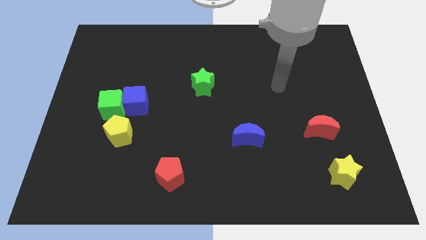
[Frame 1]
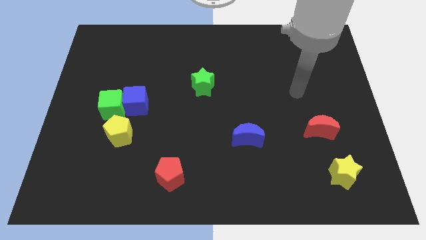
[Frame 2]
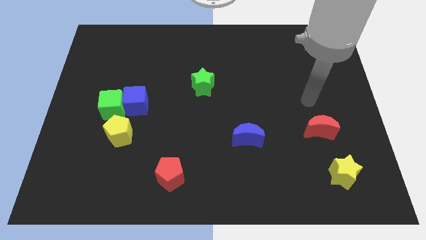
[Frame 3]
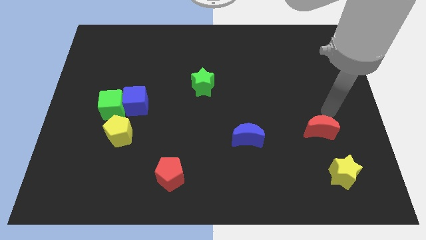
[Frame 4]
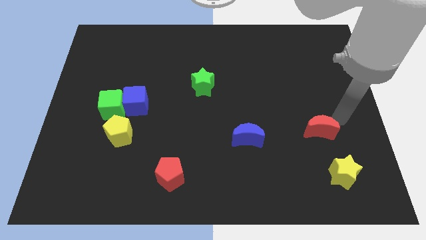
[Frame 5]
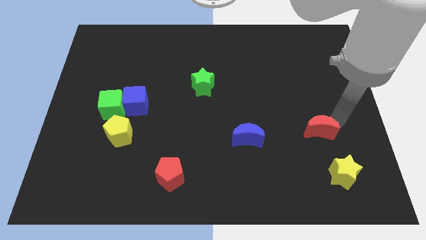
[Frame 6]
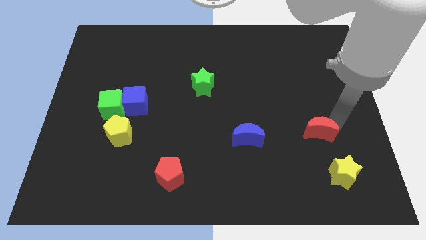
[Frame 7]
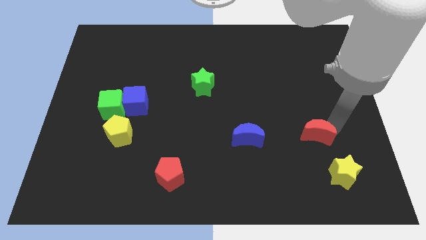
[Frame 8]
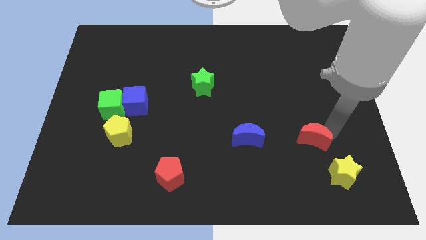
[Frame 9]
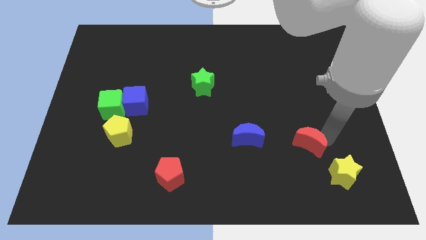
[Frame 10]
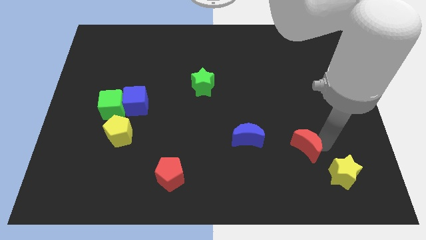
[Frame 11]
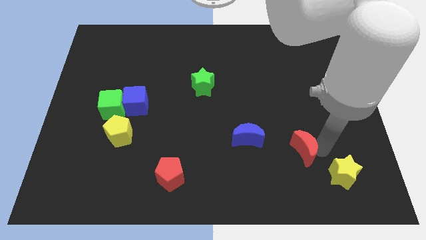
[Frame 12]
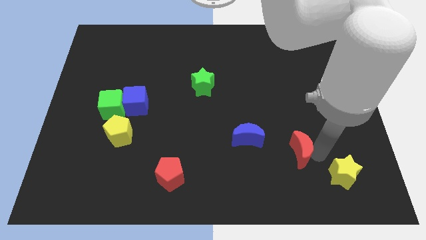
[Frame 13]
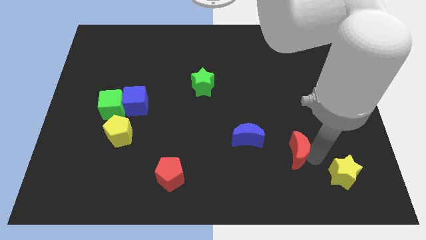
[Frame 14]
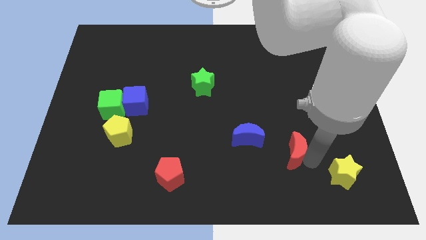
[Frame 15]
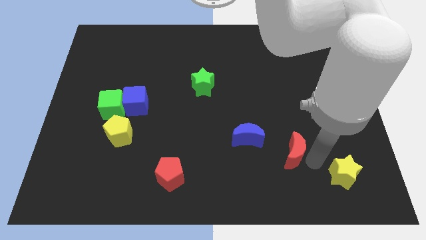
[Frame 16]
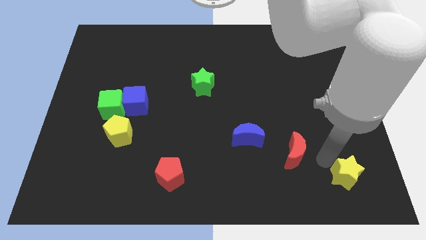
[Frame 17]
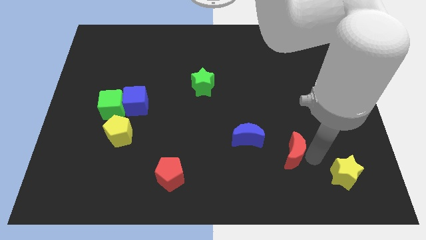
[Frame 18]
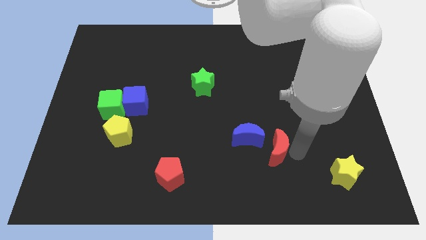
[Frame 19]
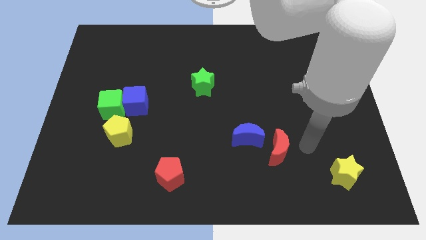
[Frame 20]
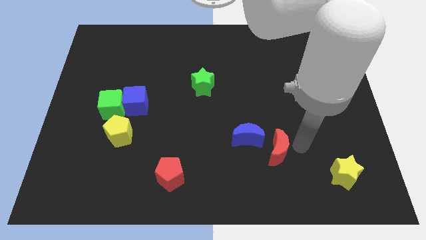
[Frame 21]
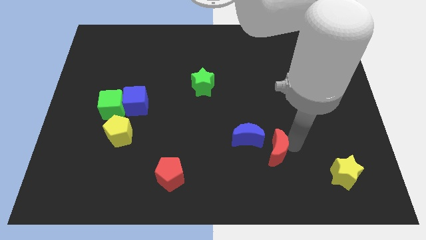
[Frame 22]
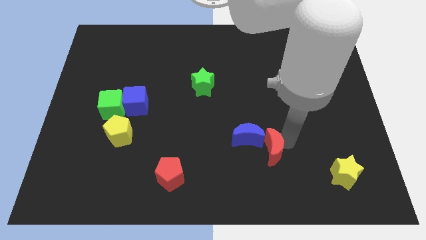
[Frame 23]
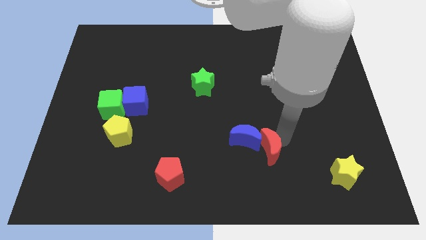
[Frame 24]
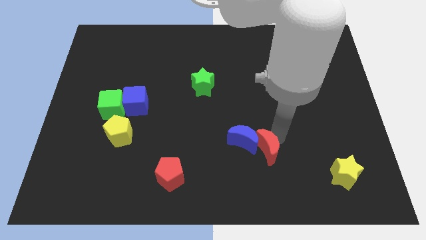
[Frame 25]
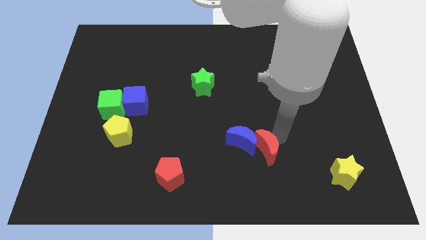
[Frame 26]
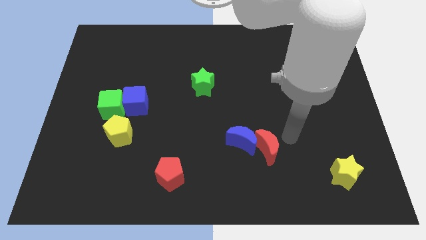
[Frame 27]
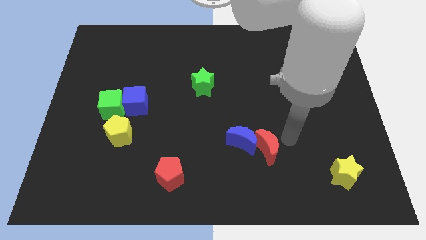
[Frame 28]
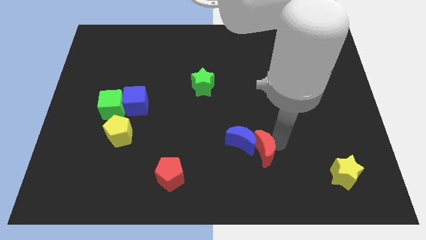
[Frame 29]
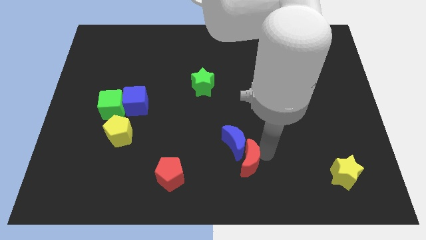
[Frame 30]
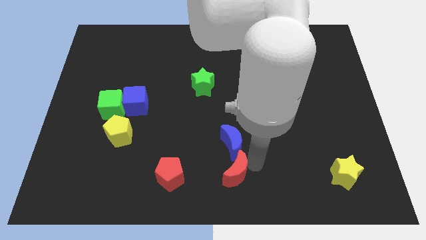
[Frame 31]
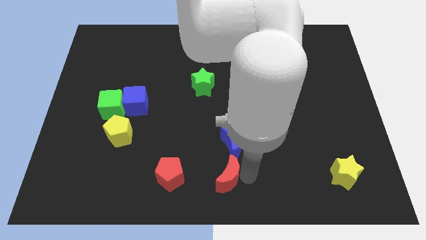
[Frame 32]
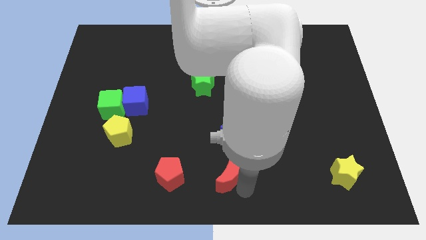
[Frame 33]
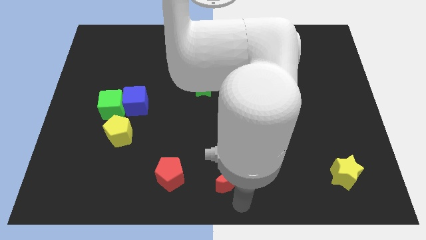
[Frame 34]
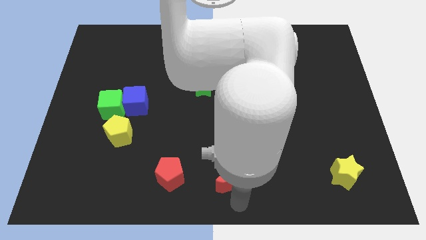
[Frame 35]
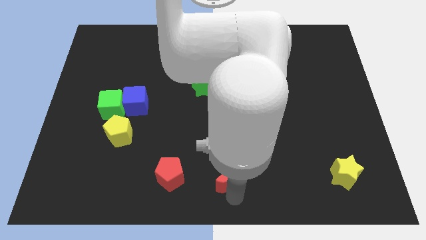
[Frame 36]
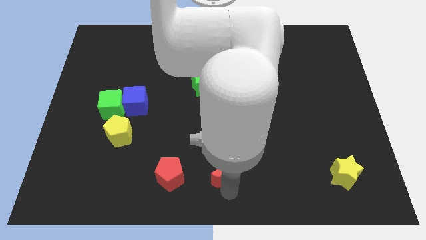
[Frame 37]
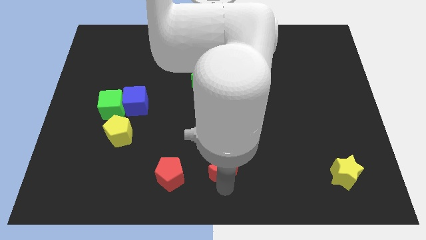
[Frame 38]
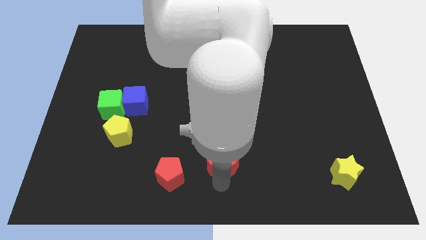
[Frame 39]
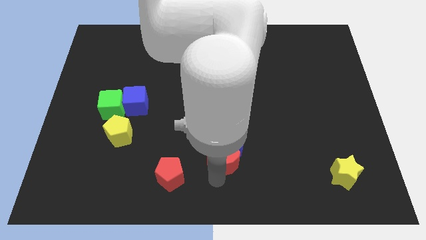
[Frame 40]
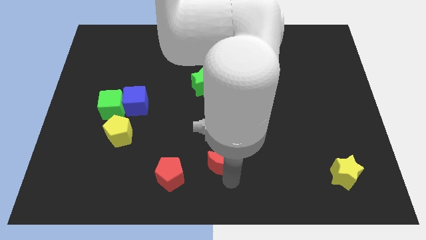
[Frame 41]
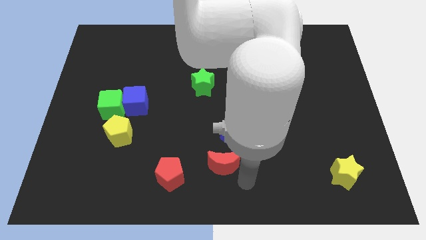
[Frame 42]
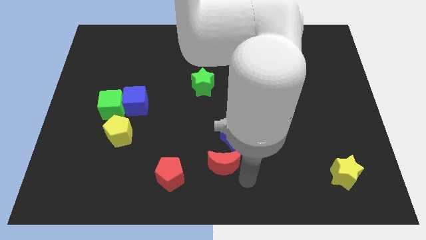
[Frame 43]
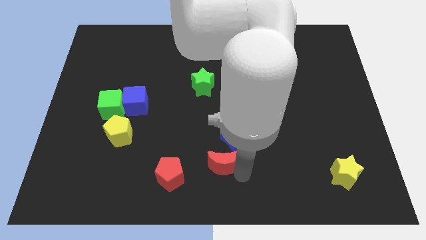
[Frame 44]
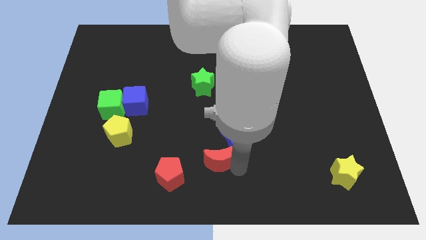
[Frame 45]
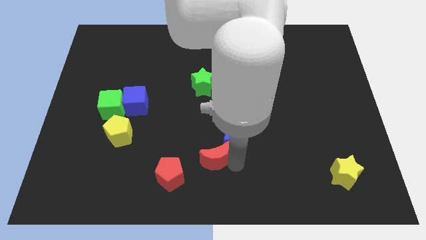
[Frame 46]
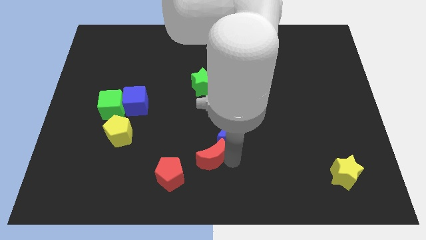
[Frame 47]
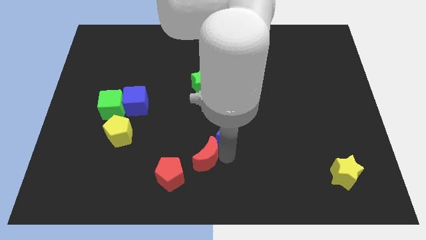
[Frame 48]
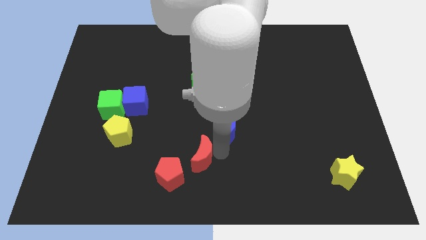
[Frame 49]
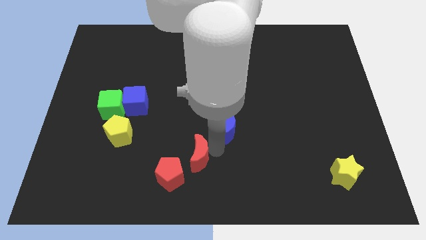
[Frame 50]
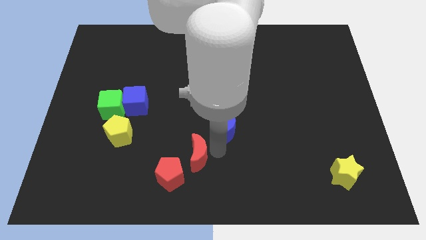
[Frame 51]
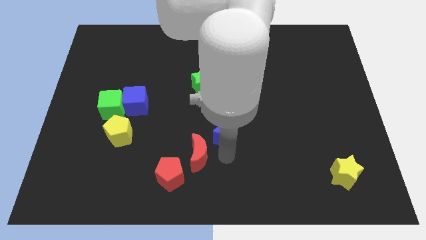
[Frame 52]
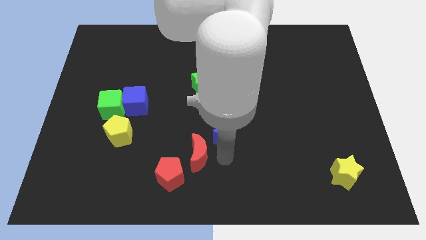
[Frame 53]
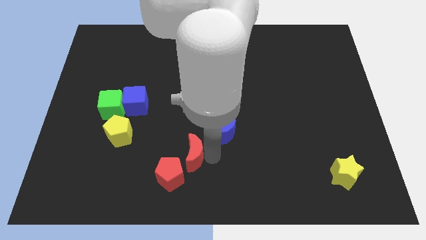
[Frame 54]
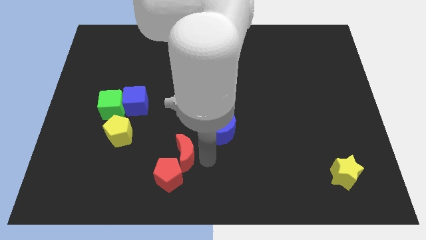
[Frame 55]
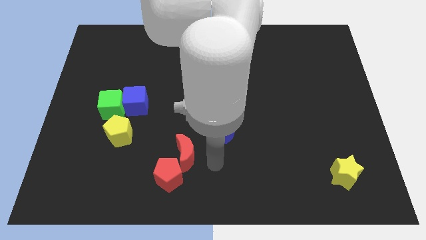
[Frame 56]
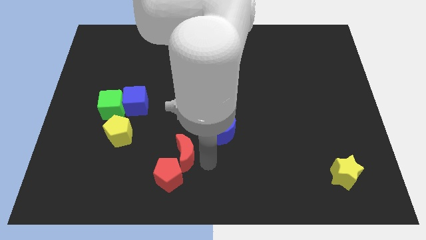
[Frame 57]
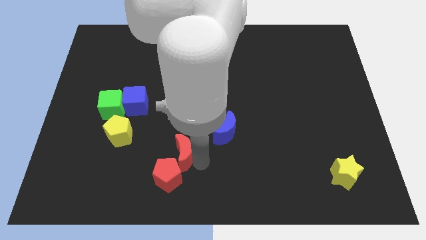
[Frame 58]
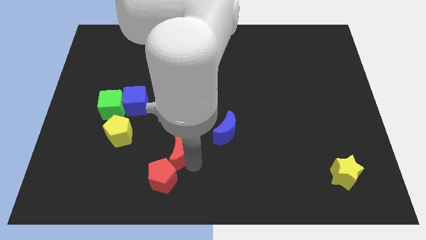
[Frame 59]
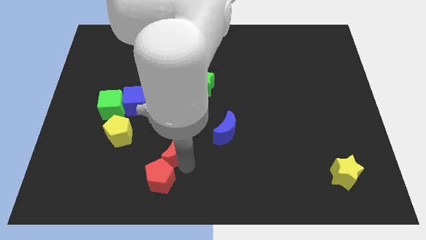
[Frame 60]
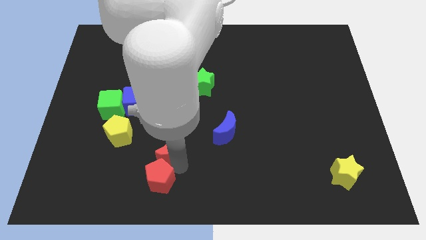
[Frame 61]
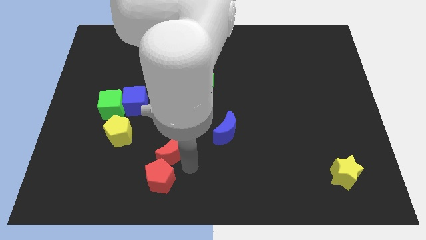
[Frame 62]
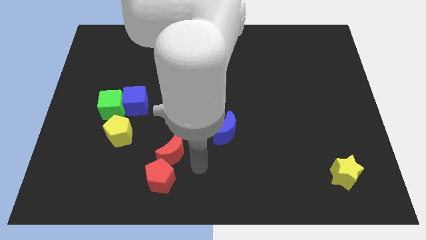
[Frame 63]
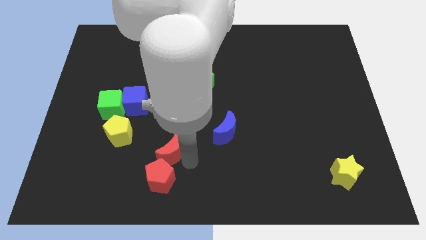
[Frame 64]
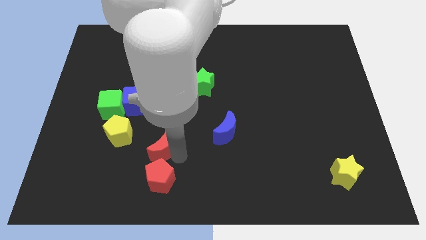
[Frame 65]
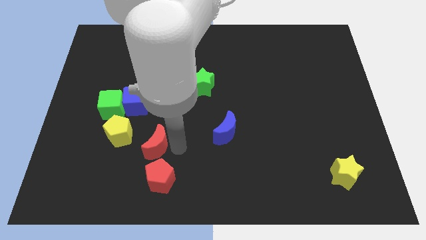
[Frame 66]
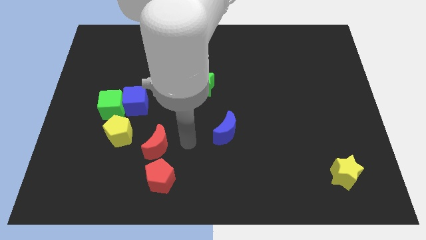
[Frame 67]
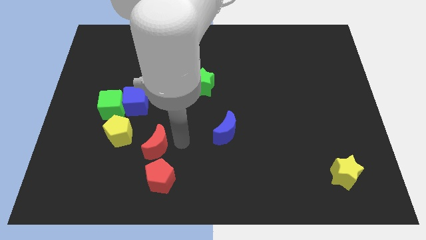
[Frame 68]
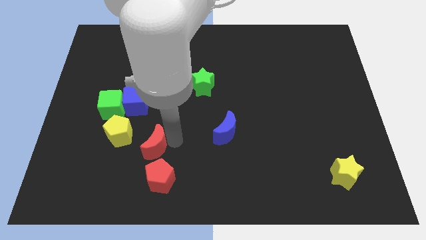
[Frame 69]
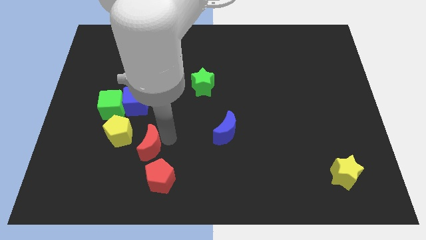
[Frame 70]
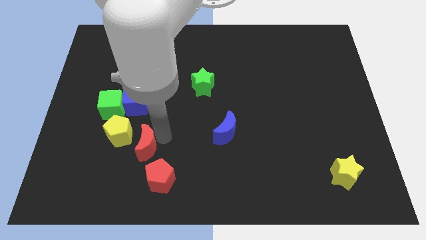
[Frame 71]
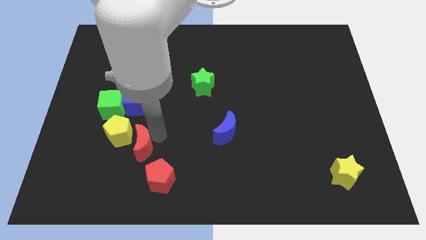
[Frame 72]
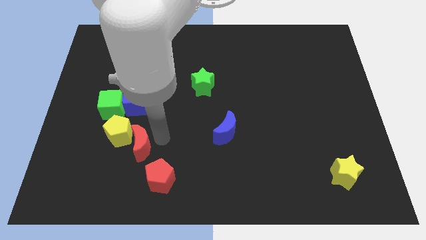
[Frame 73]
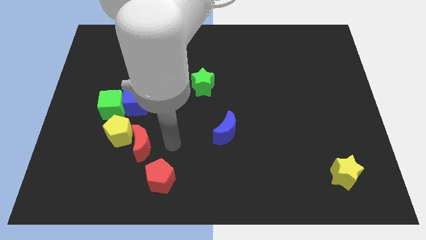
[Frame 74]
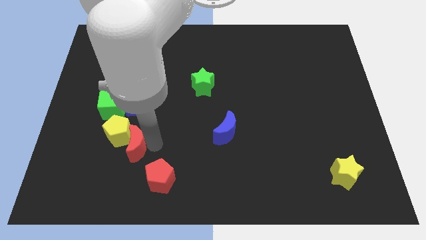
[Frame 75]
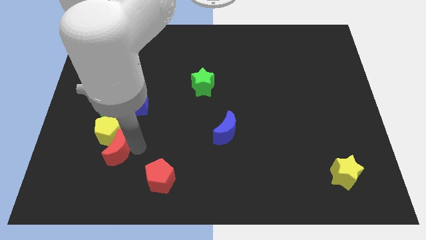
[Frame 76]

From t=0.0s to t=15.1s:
move the red moon below the green cube
